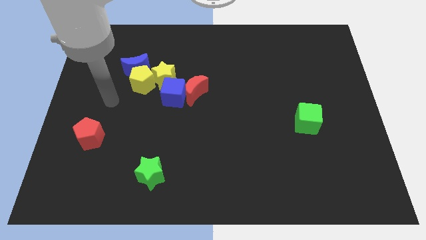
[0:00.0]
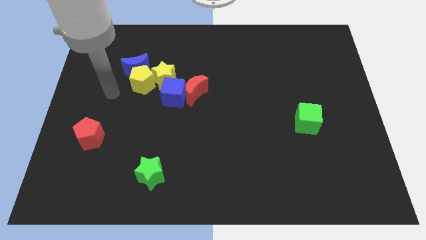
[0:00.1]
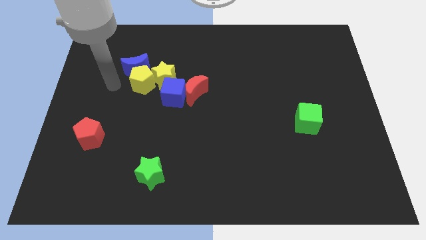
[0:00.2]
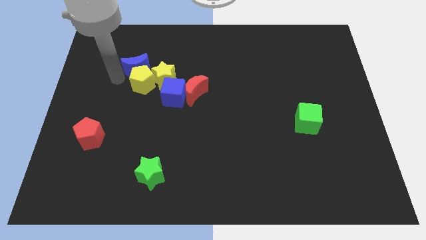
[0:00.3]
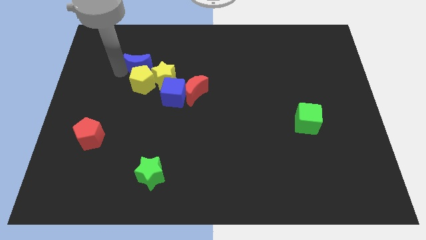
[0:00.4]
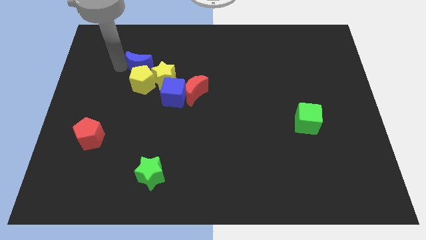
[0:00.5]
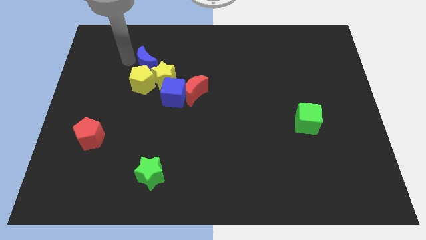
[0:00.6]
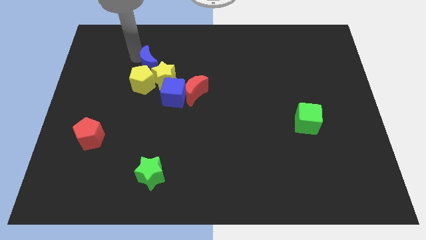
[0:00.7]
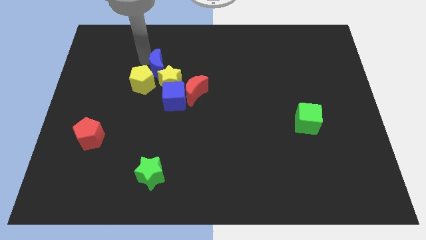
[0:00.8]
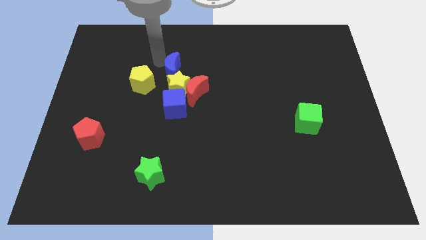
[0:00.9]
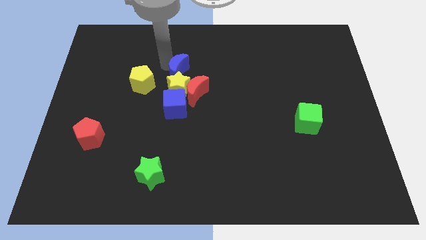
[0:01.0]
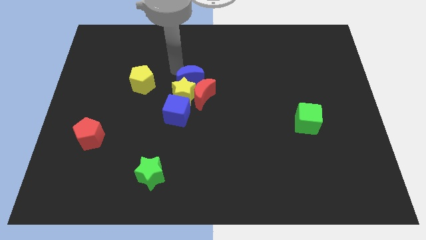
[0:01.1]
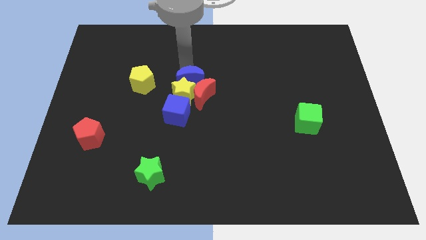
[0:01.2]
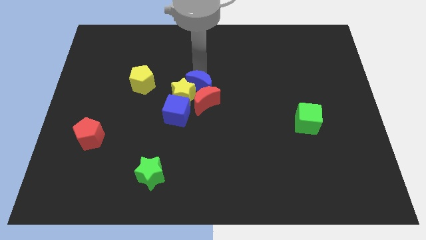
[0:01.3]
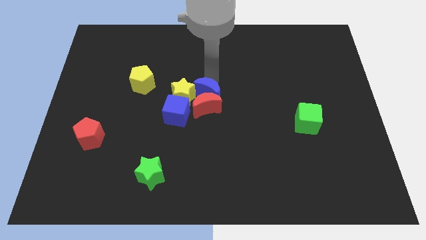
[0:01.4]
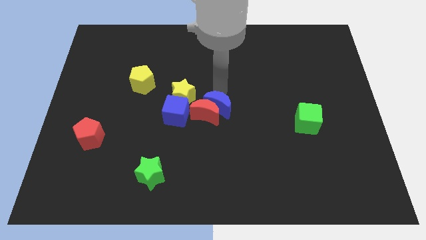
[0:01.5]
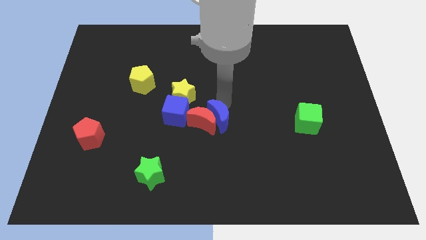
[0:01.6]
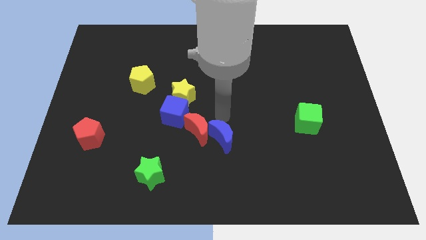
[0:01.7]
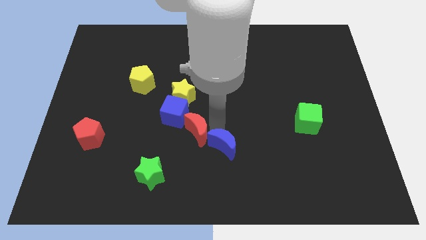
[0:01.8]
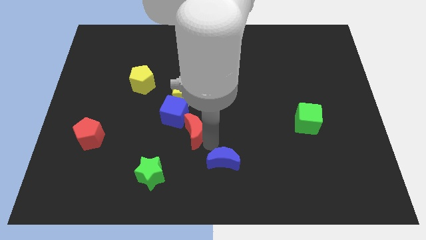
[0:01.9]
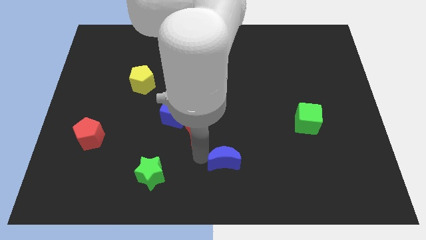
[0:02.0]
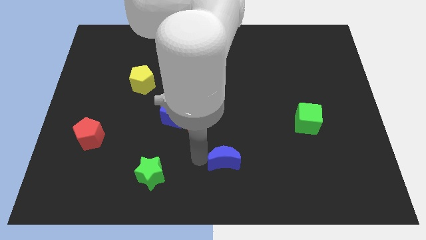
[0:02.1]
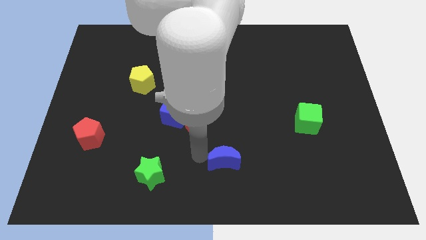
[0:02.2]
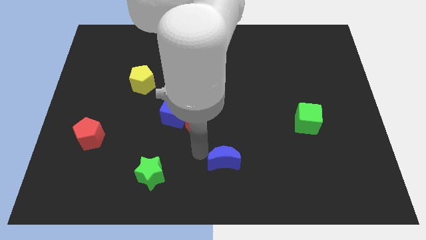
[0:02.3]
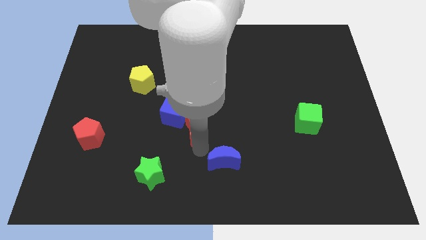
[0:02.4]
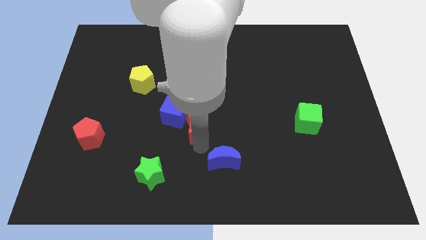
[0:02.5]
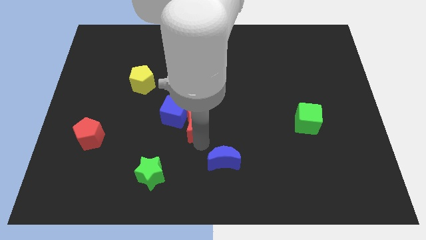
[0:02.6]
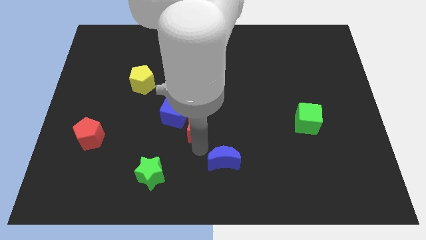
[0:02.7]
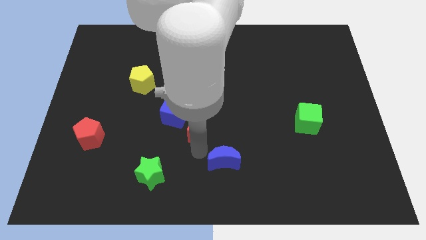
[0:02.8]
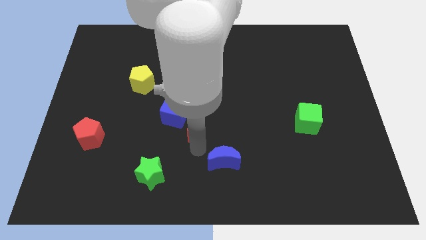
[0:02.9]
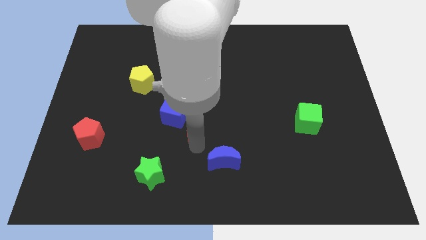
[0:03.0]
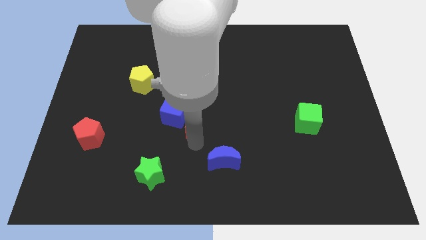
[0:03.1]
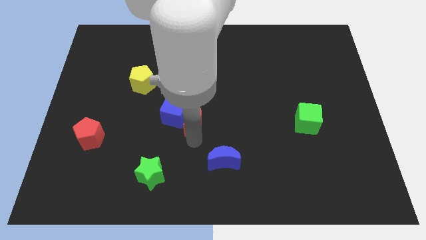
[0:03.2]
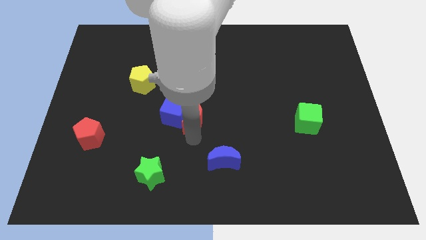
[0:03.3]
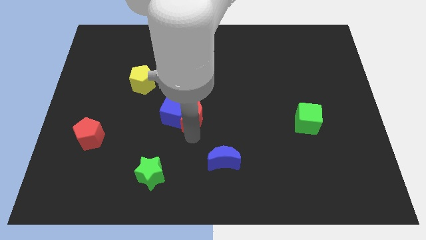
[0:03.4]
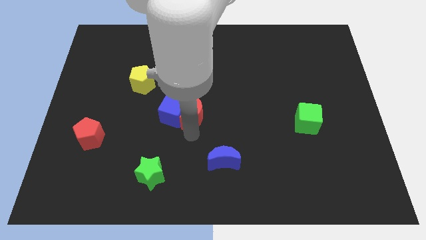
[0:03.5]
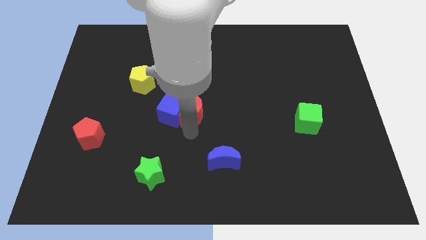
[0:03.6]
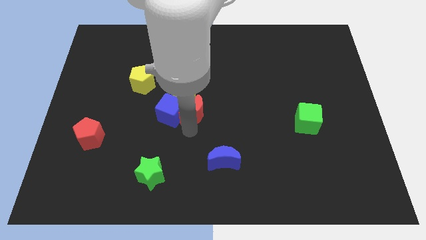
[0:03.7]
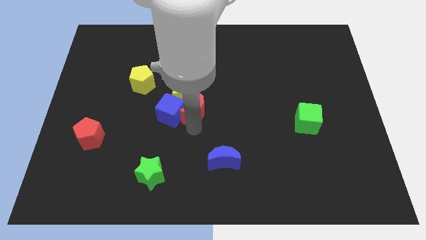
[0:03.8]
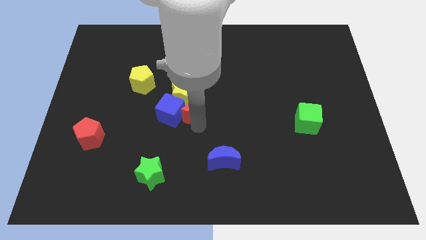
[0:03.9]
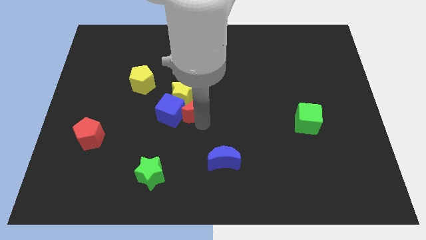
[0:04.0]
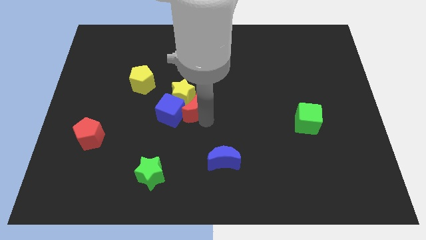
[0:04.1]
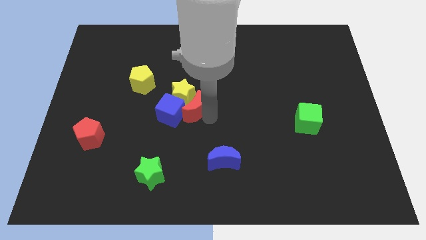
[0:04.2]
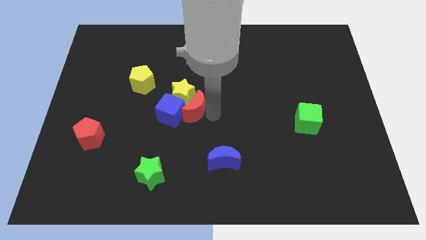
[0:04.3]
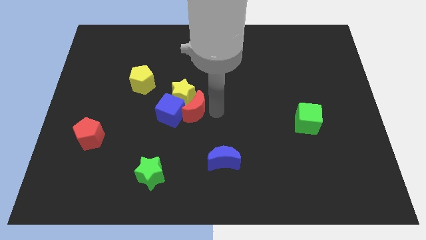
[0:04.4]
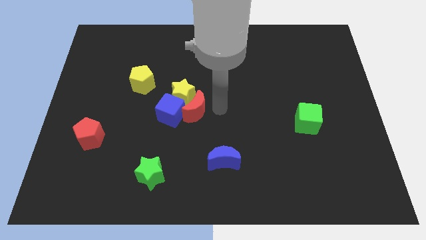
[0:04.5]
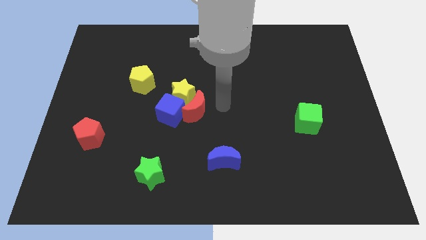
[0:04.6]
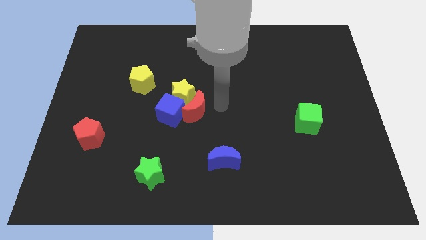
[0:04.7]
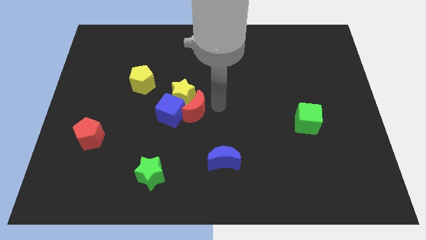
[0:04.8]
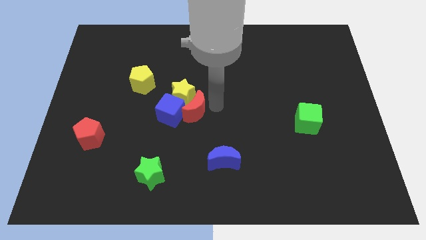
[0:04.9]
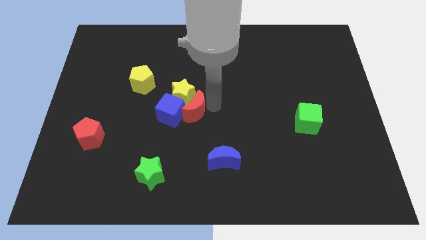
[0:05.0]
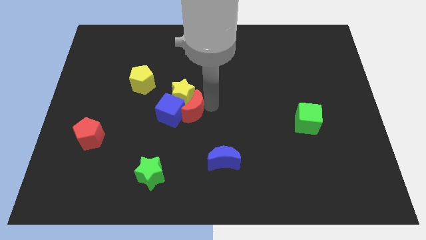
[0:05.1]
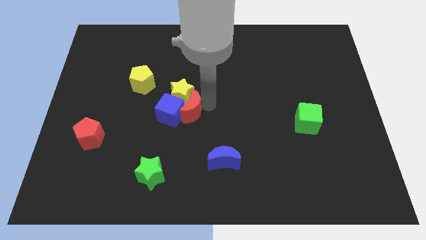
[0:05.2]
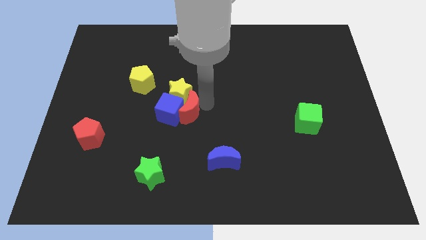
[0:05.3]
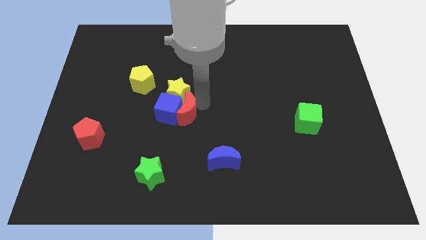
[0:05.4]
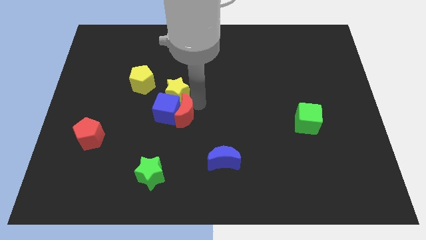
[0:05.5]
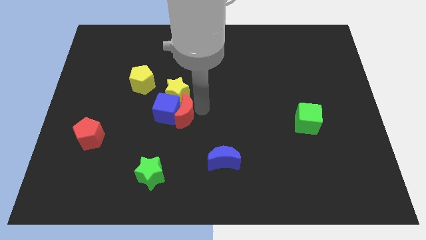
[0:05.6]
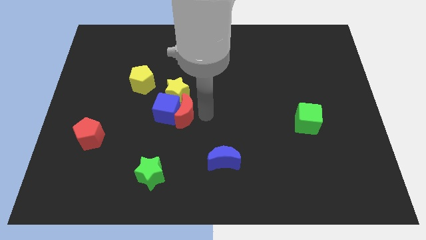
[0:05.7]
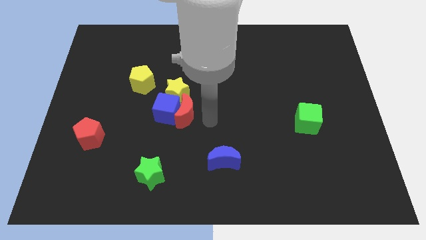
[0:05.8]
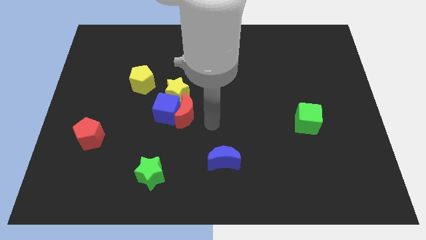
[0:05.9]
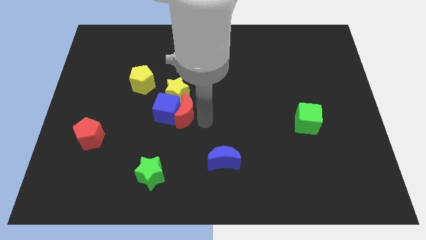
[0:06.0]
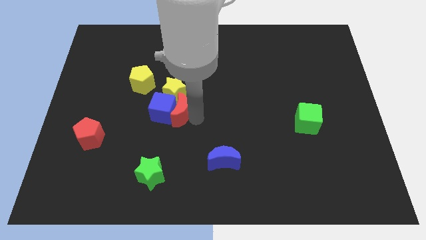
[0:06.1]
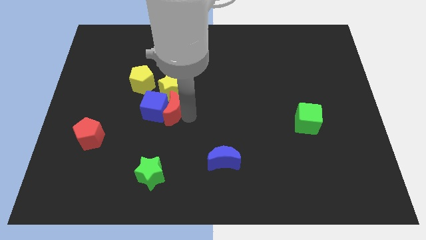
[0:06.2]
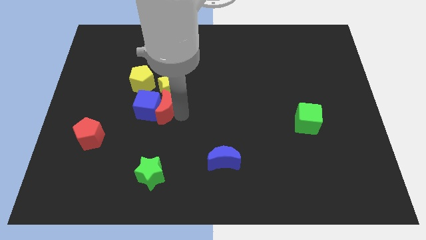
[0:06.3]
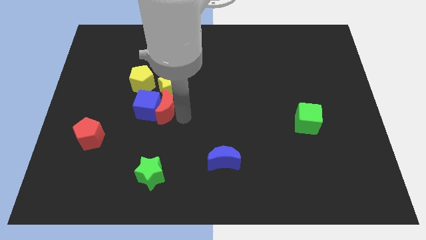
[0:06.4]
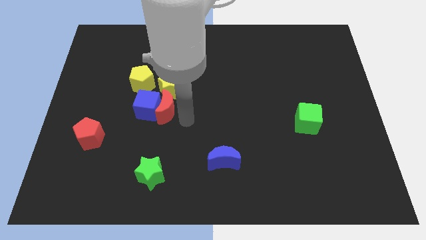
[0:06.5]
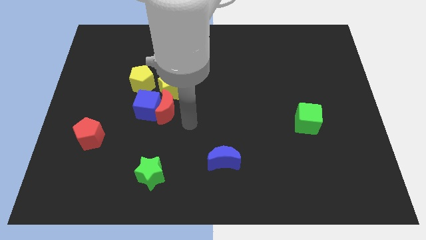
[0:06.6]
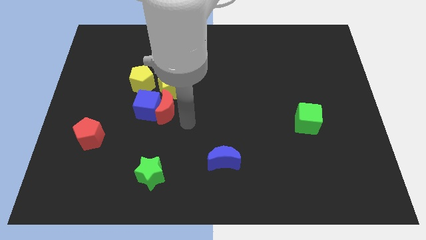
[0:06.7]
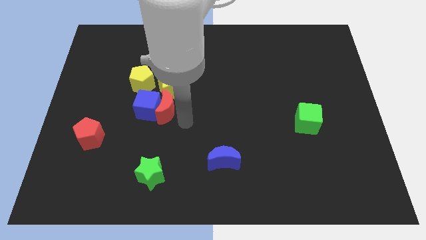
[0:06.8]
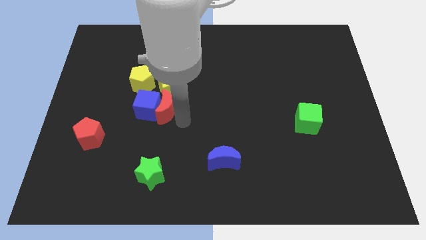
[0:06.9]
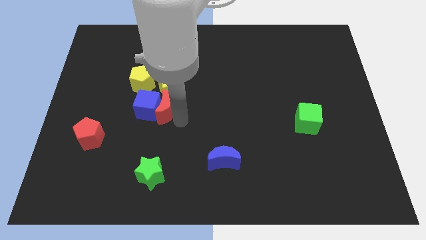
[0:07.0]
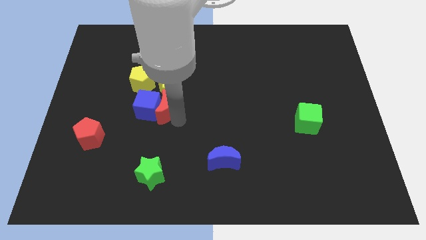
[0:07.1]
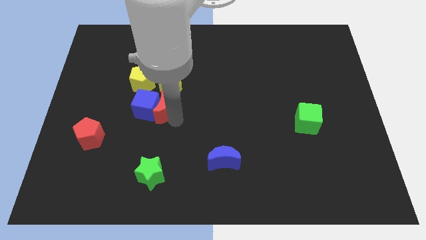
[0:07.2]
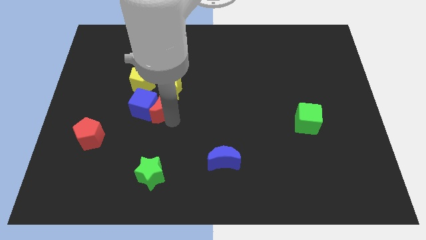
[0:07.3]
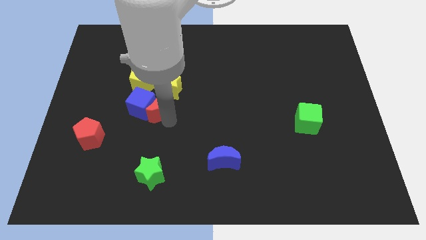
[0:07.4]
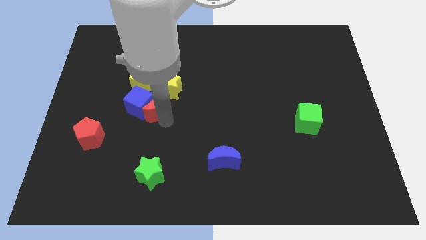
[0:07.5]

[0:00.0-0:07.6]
push the red moon left slightly

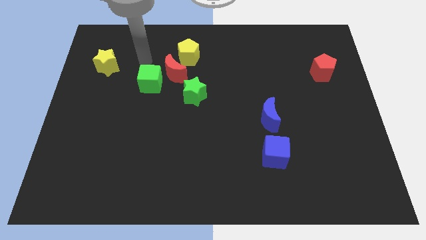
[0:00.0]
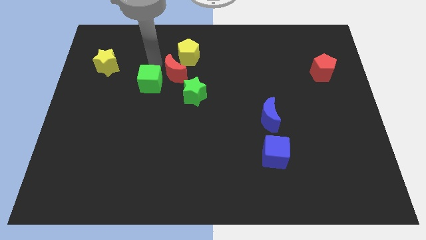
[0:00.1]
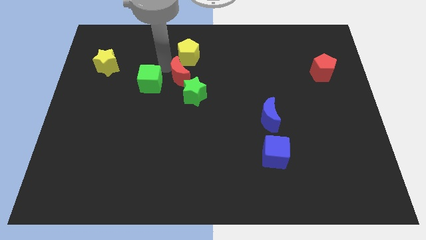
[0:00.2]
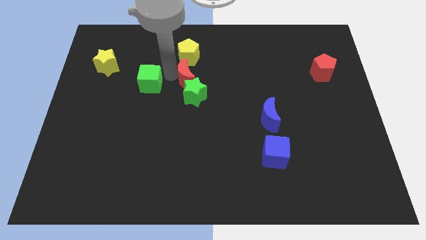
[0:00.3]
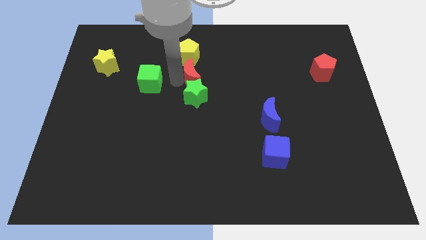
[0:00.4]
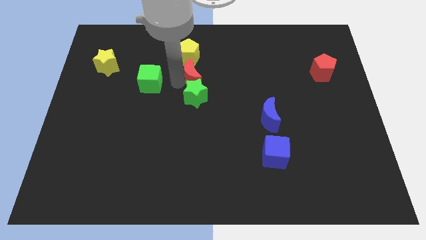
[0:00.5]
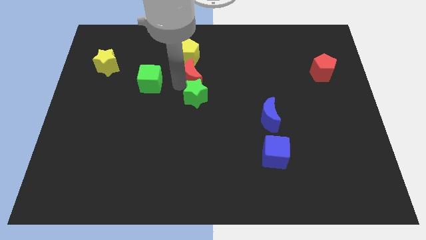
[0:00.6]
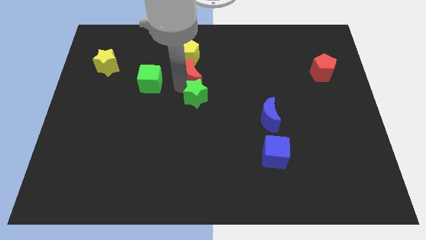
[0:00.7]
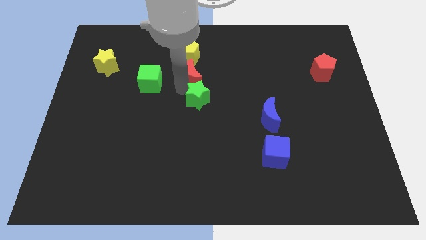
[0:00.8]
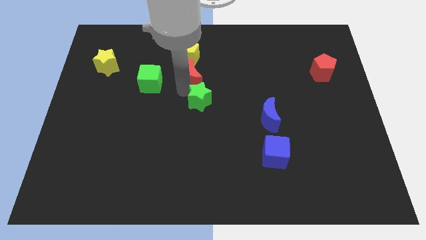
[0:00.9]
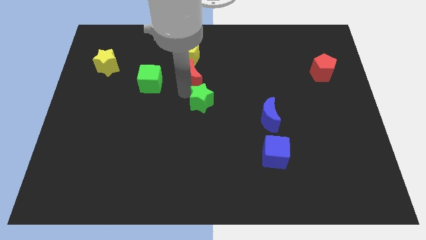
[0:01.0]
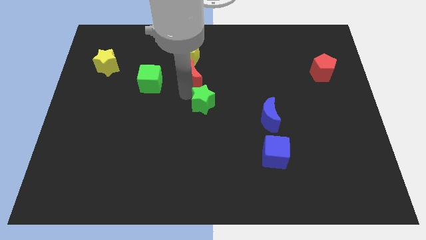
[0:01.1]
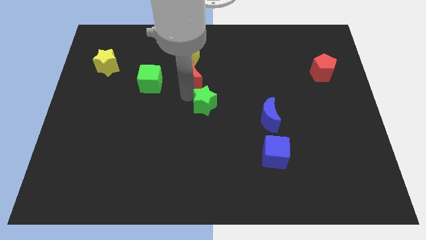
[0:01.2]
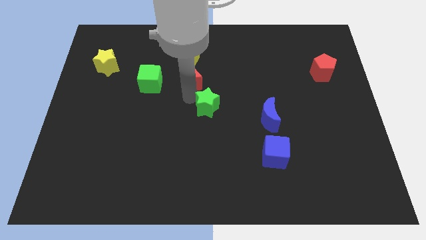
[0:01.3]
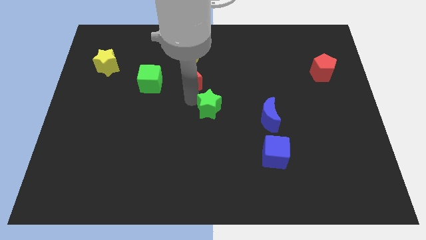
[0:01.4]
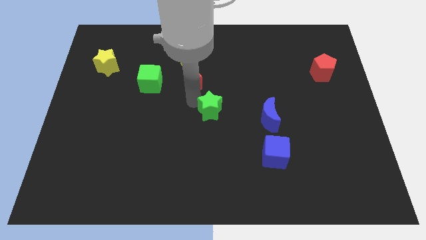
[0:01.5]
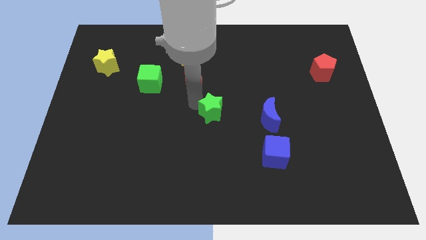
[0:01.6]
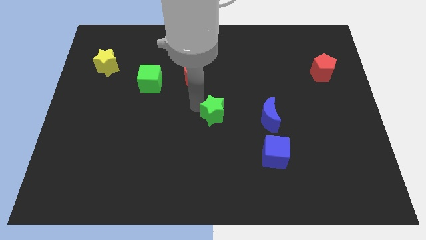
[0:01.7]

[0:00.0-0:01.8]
push the green star a bit down and to the right diagonally
